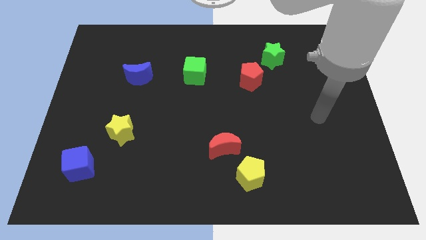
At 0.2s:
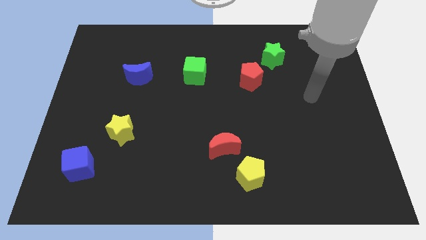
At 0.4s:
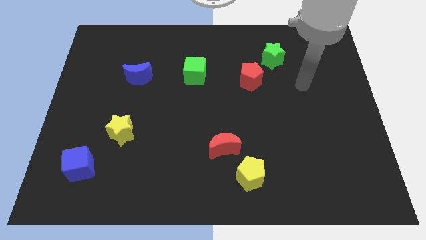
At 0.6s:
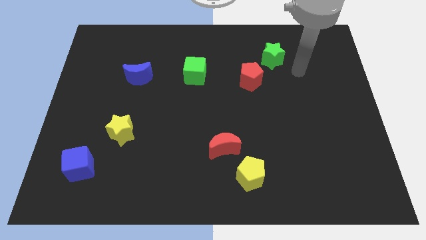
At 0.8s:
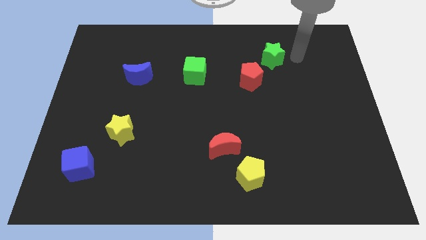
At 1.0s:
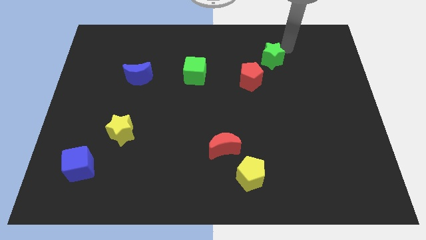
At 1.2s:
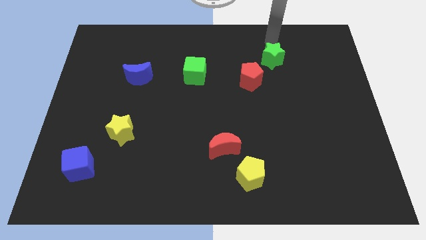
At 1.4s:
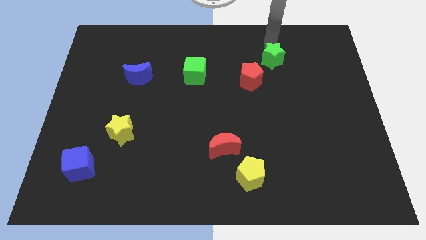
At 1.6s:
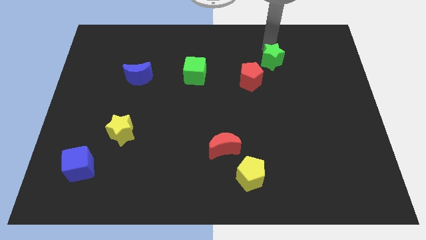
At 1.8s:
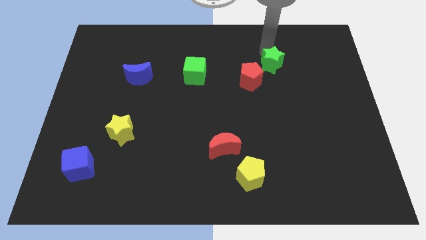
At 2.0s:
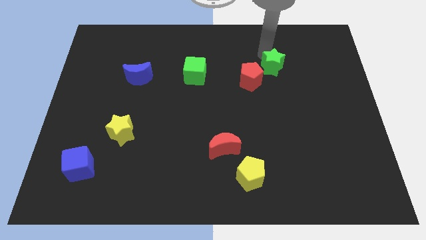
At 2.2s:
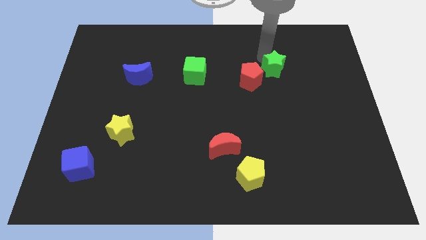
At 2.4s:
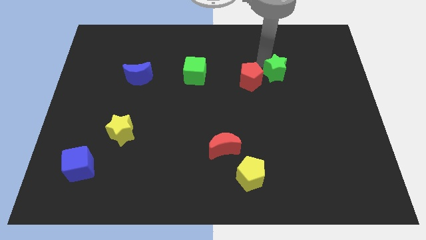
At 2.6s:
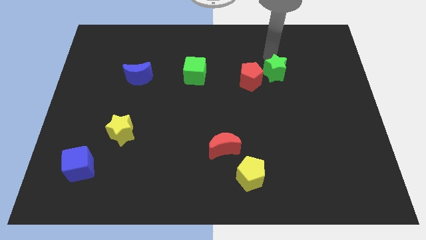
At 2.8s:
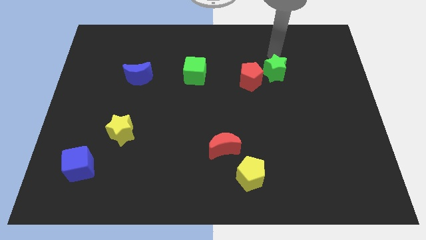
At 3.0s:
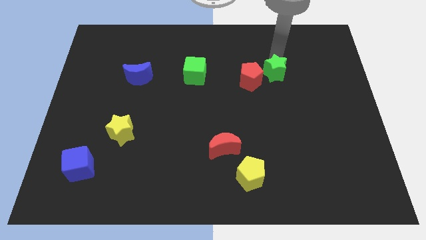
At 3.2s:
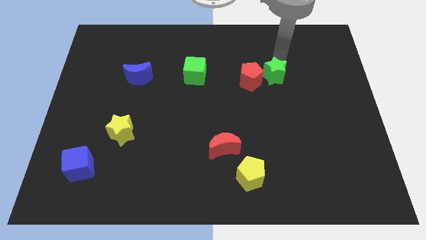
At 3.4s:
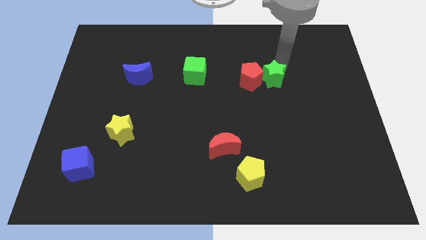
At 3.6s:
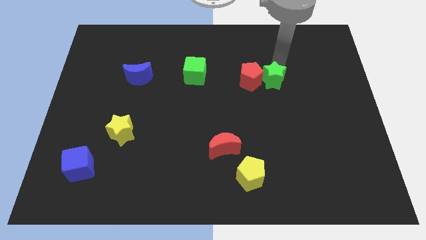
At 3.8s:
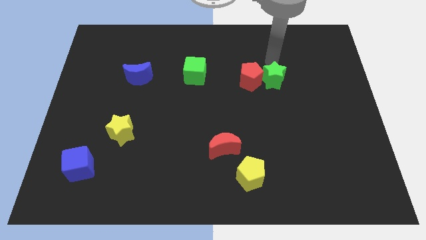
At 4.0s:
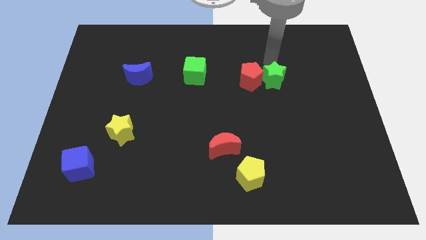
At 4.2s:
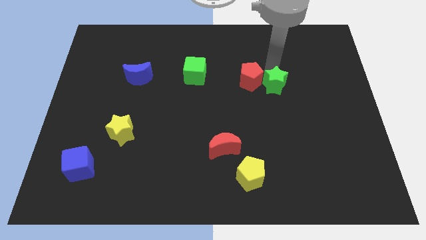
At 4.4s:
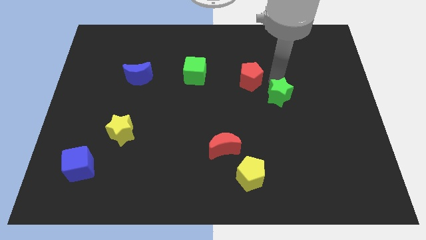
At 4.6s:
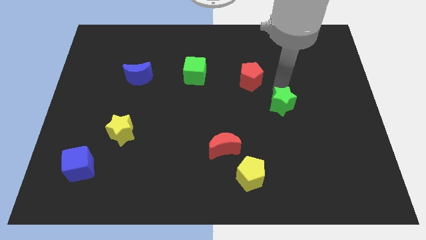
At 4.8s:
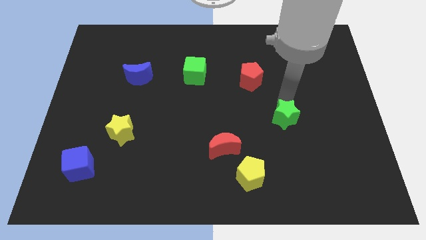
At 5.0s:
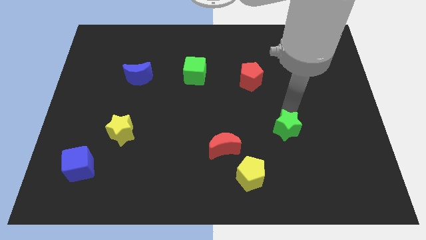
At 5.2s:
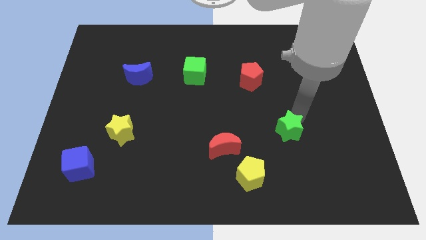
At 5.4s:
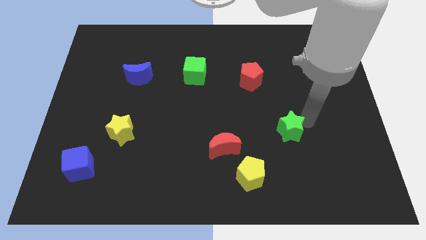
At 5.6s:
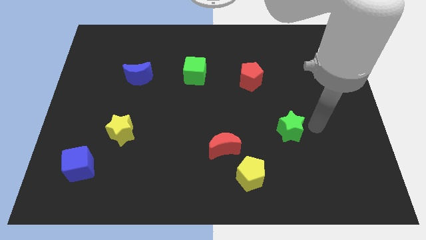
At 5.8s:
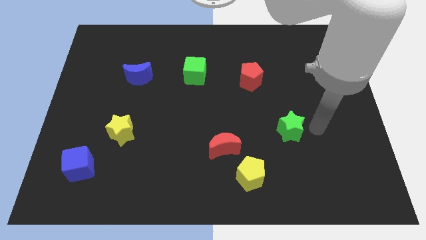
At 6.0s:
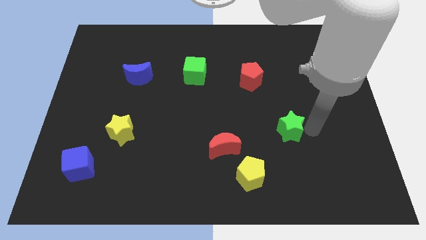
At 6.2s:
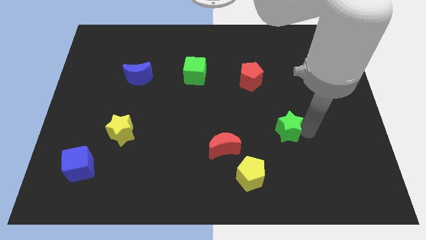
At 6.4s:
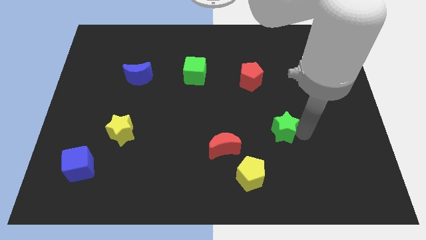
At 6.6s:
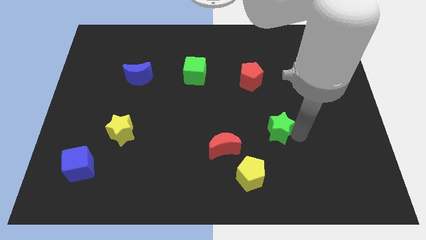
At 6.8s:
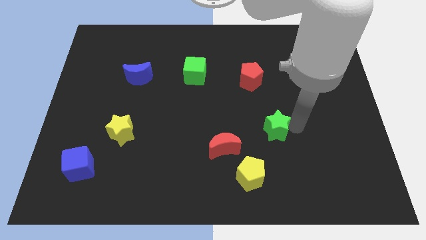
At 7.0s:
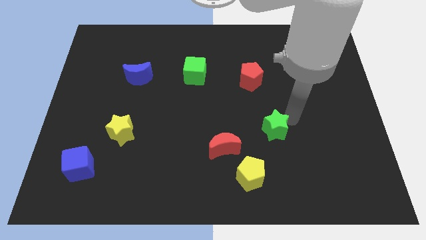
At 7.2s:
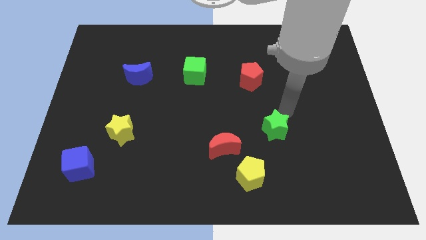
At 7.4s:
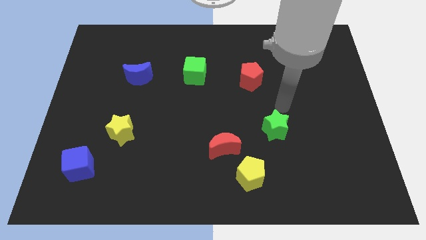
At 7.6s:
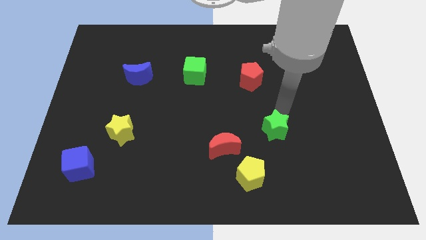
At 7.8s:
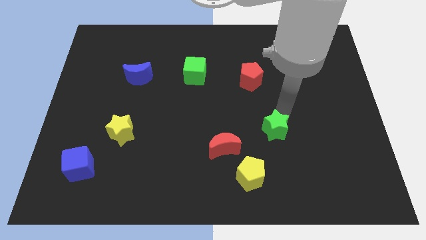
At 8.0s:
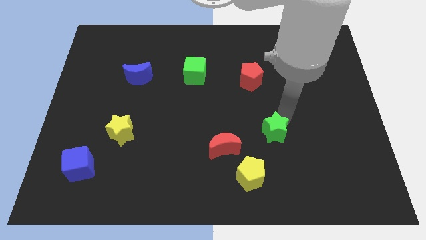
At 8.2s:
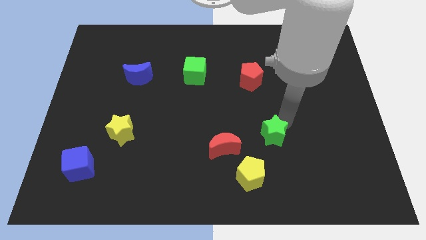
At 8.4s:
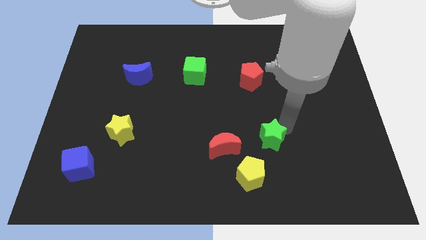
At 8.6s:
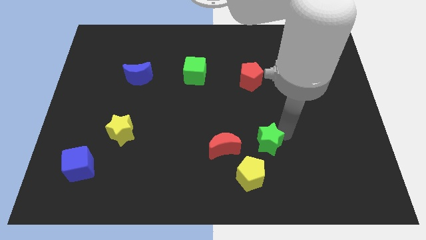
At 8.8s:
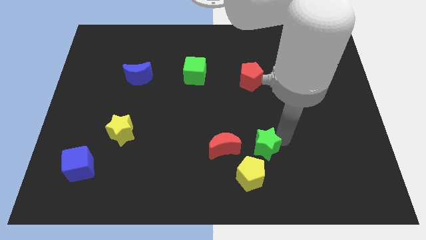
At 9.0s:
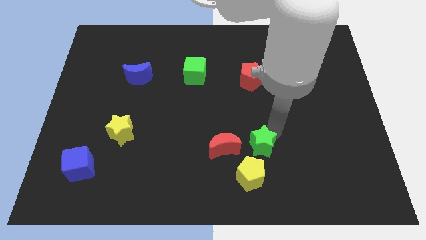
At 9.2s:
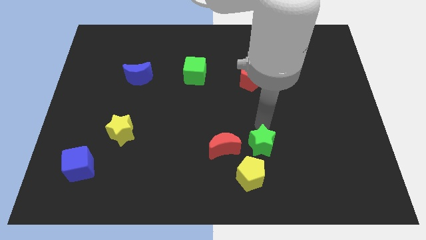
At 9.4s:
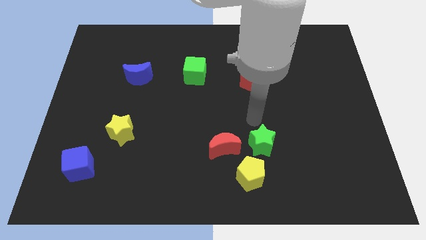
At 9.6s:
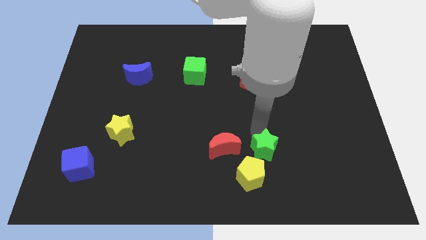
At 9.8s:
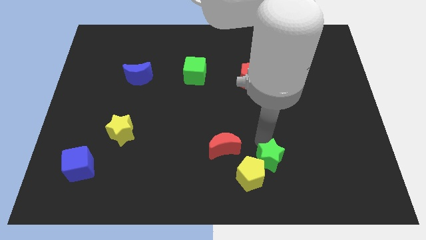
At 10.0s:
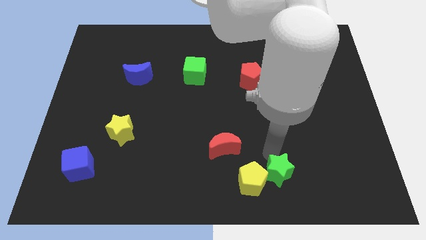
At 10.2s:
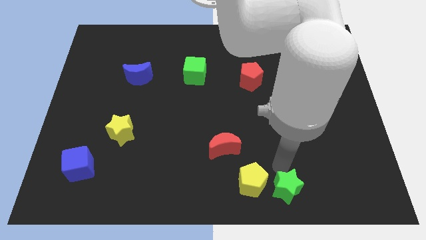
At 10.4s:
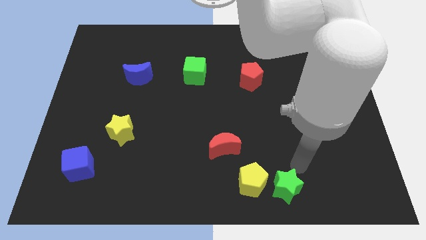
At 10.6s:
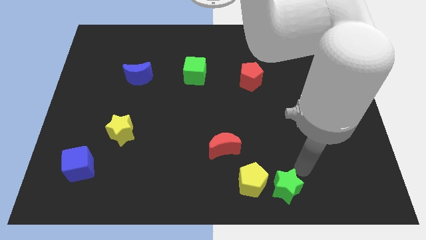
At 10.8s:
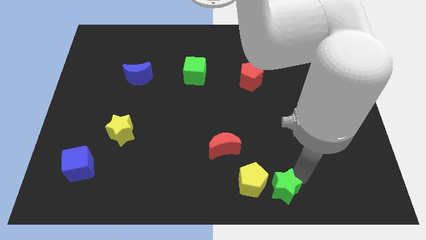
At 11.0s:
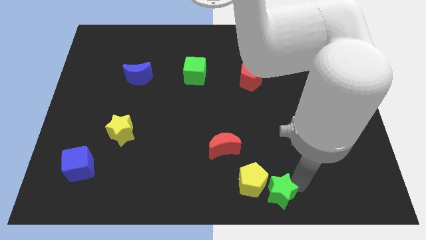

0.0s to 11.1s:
slide the green star to the bottom
